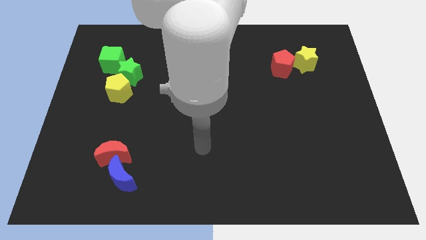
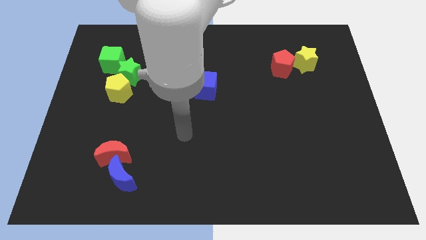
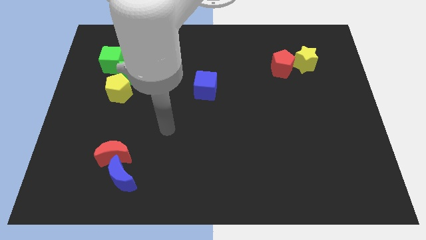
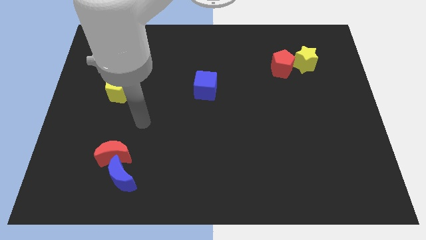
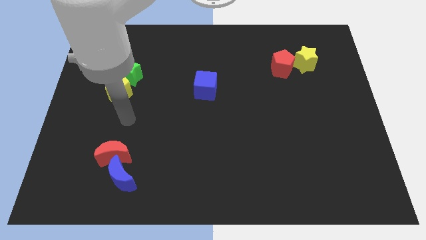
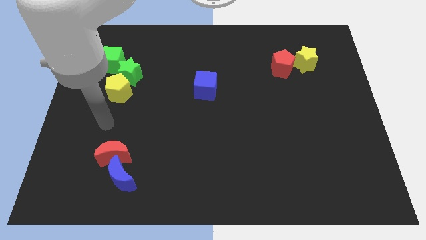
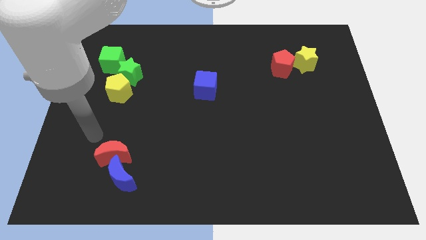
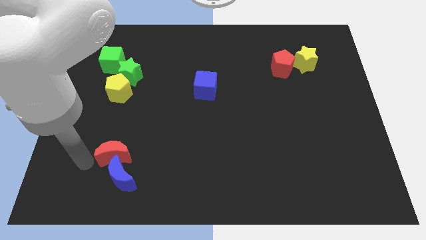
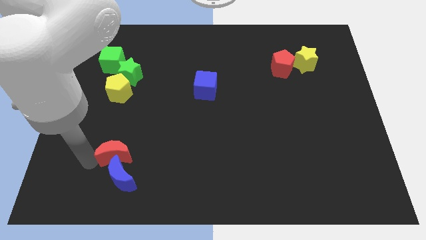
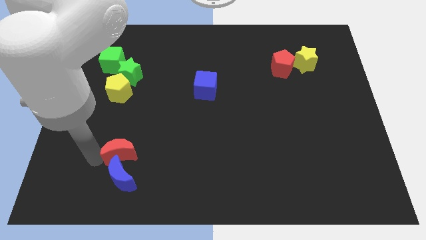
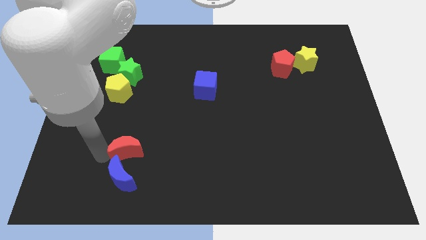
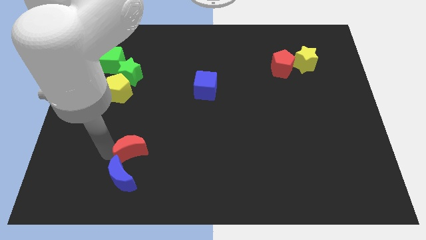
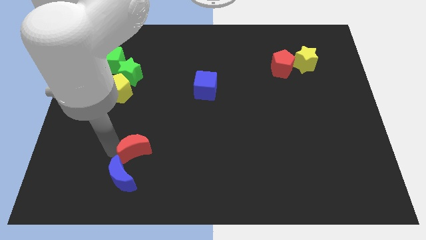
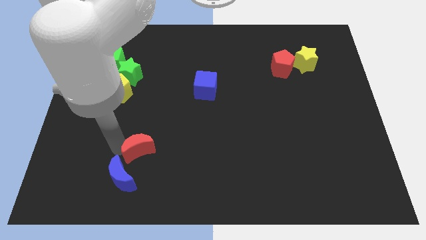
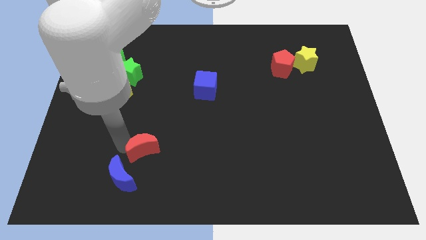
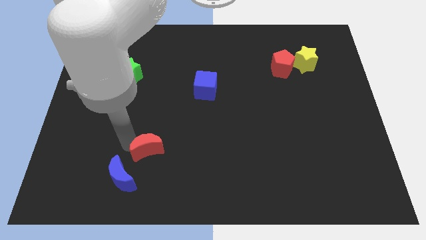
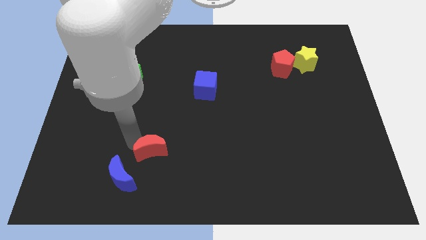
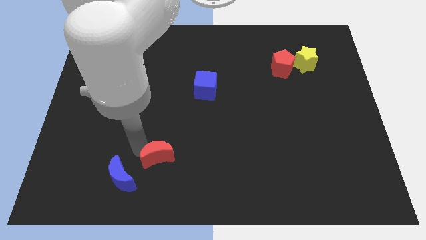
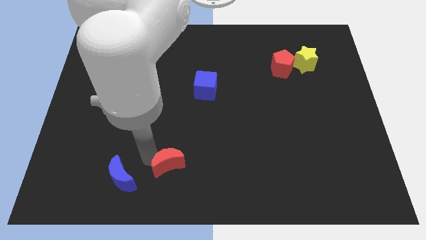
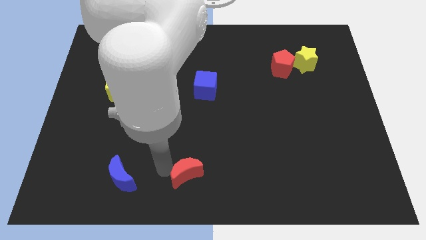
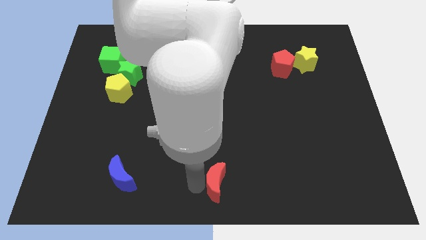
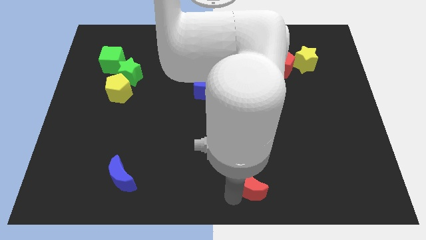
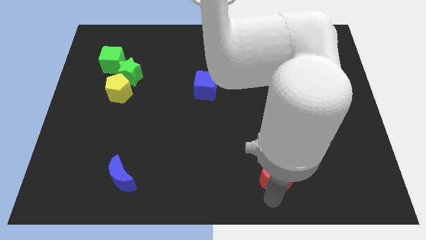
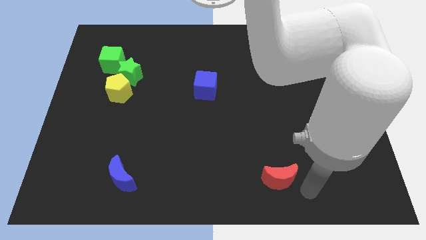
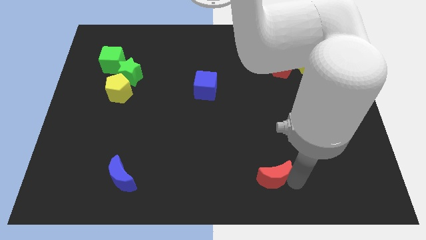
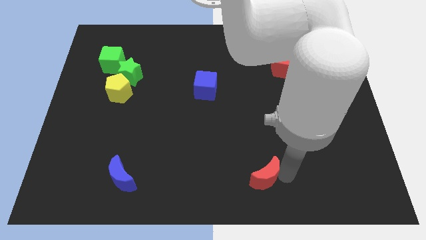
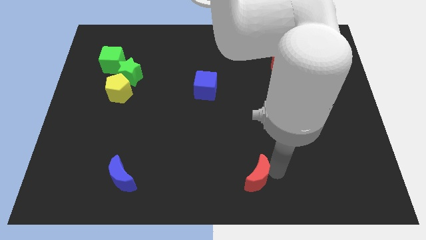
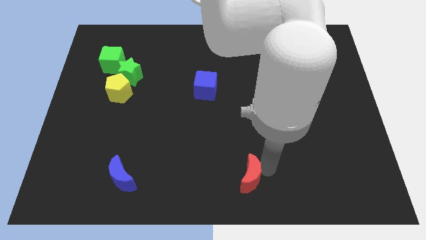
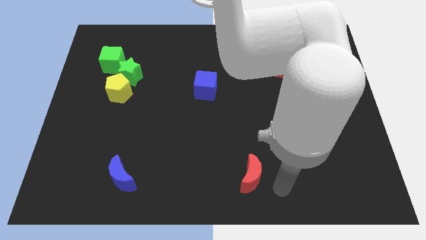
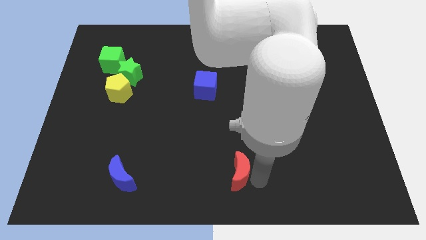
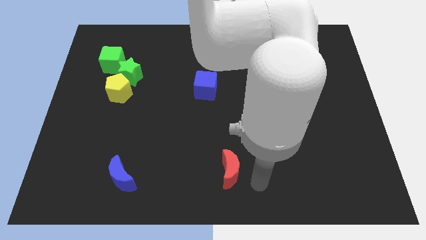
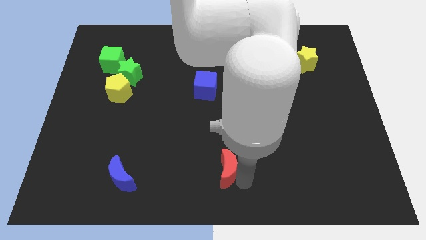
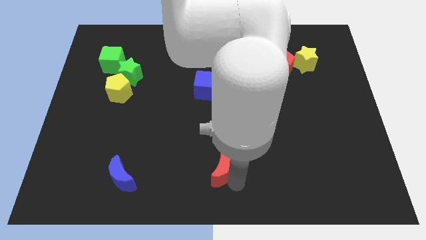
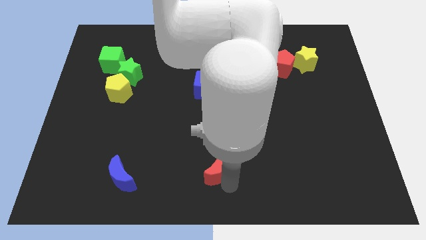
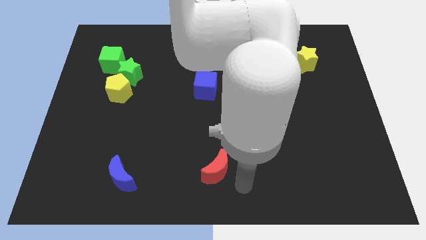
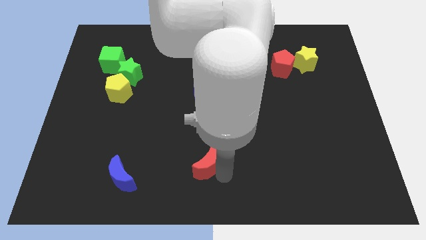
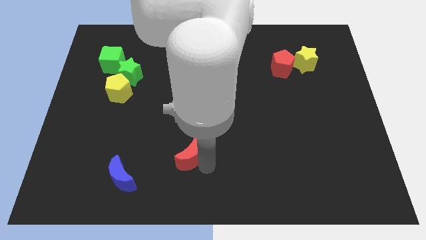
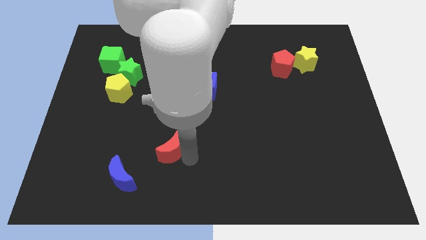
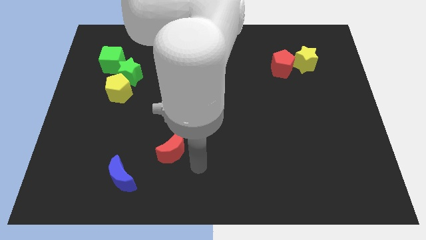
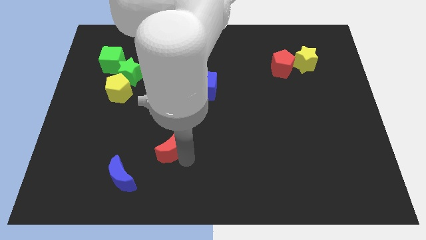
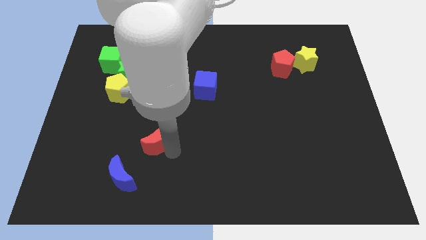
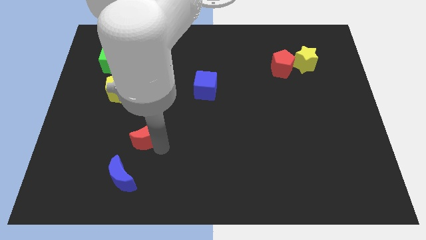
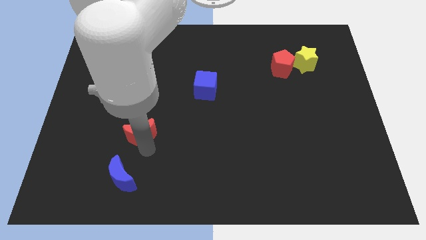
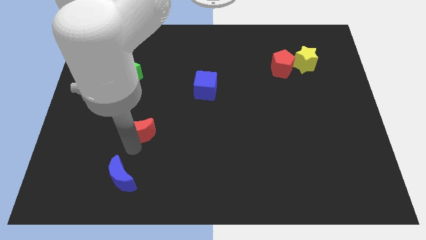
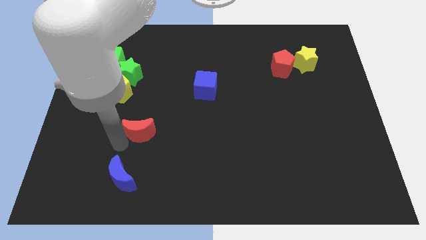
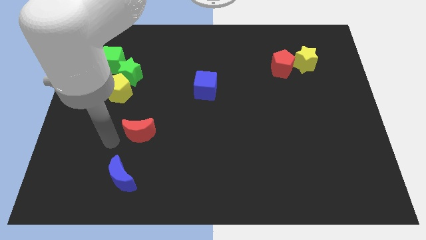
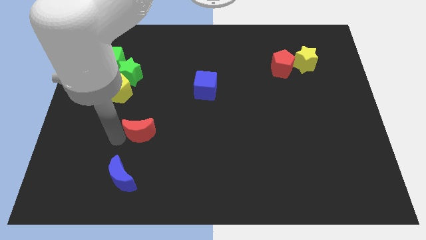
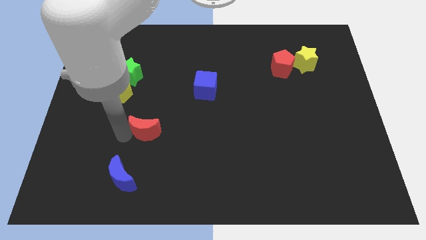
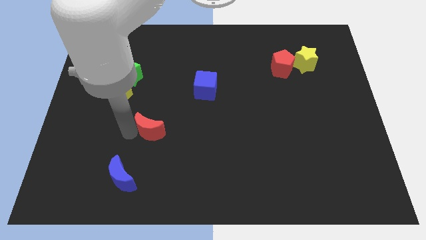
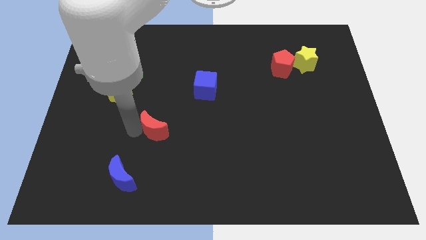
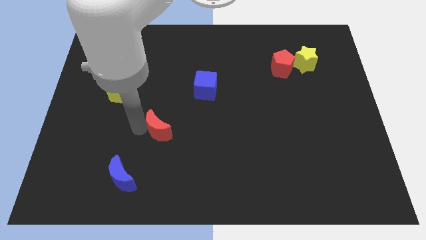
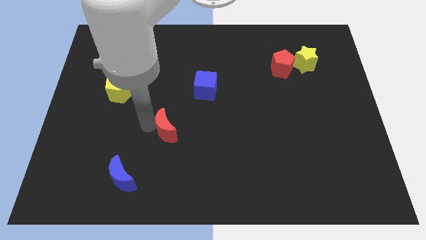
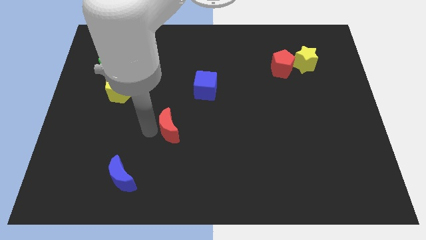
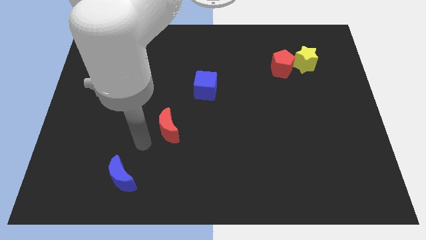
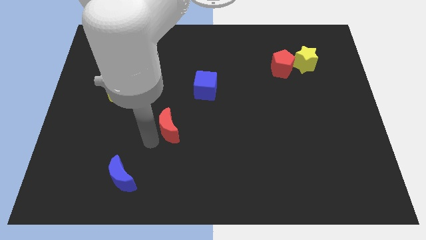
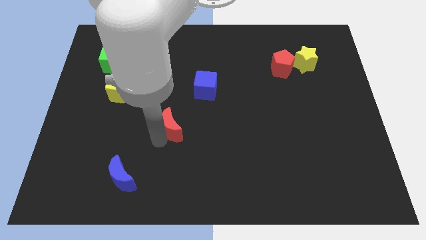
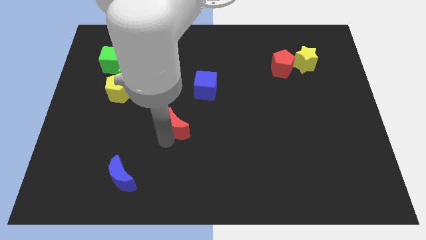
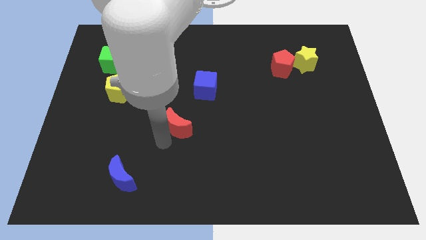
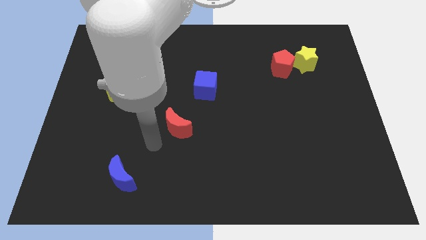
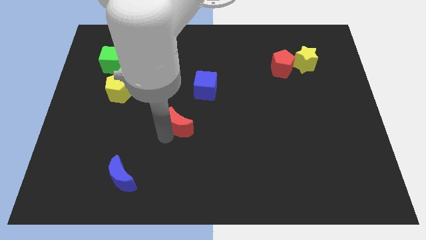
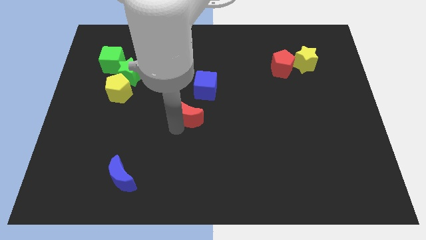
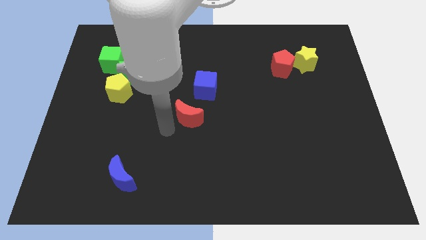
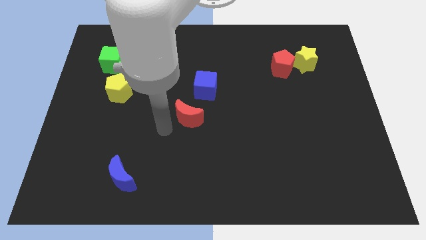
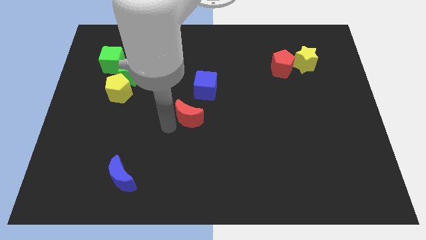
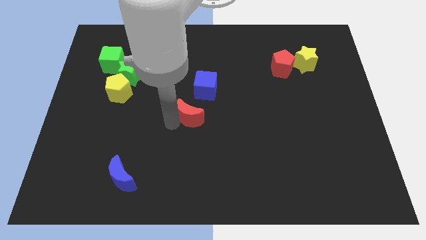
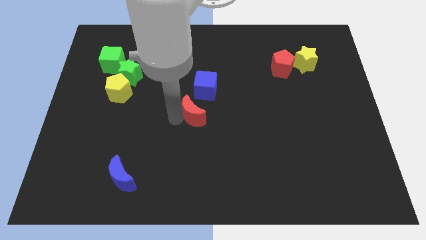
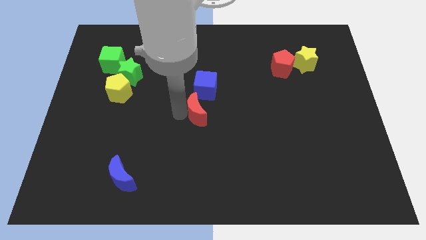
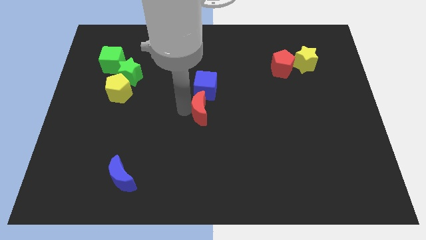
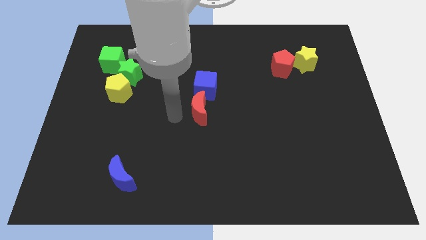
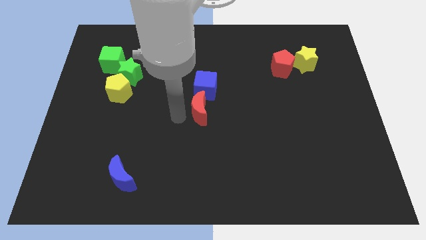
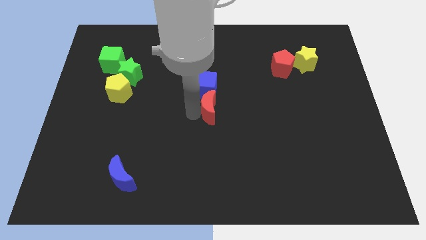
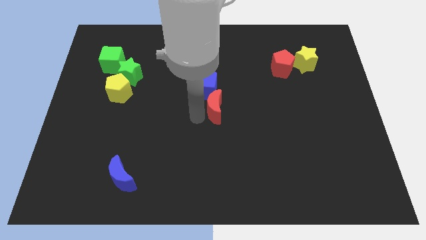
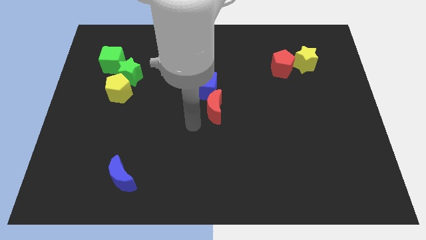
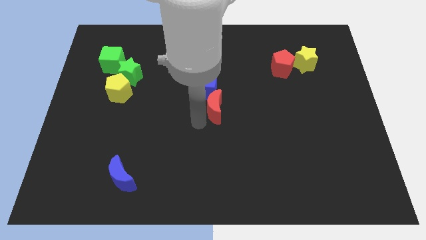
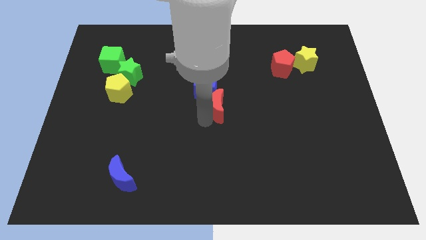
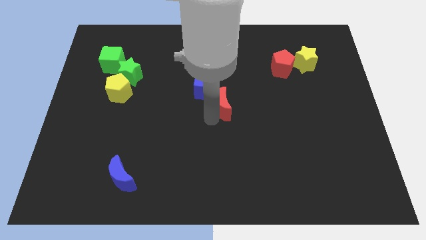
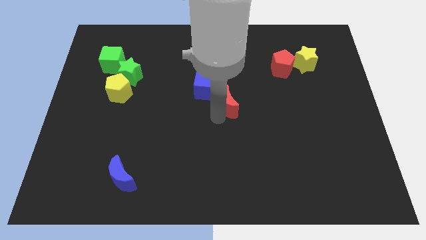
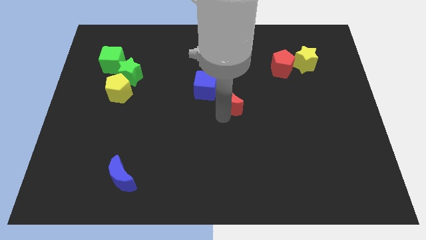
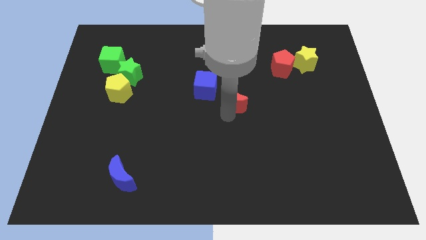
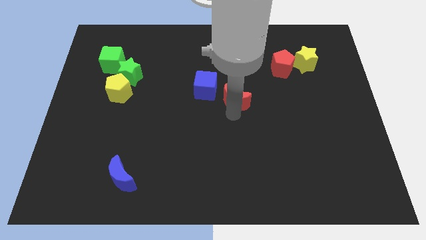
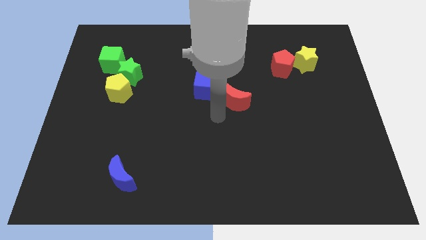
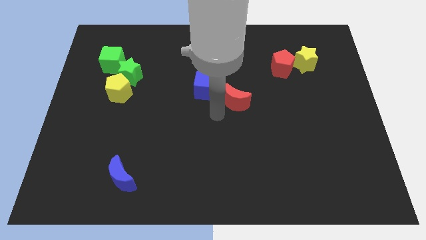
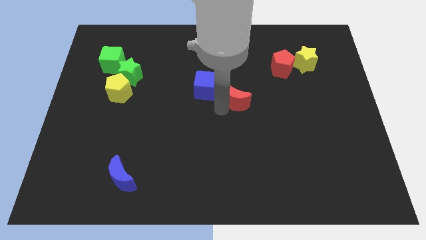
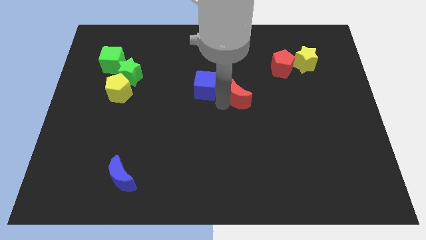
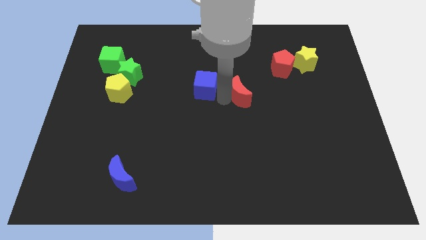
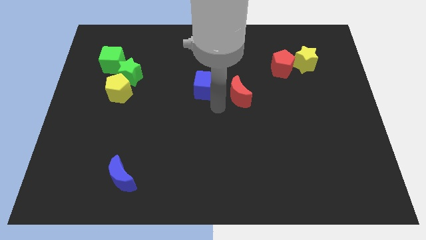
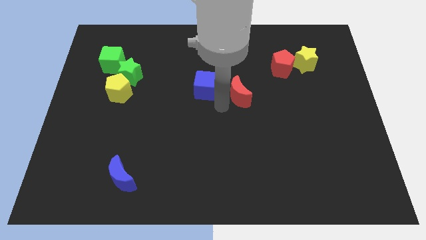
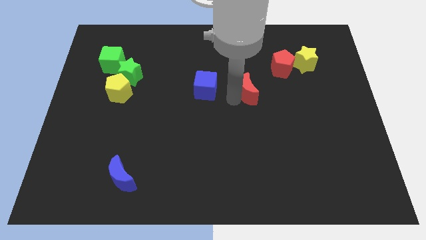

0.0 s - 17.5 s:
put the red moon diagonally down and to the left of the red pentagon
